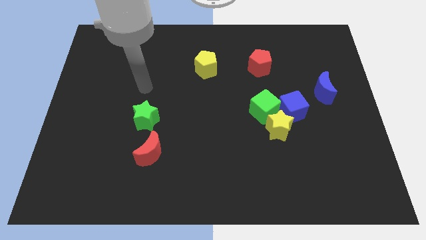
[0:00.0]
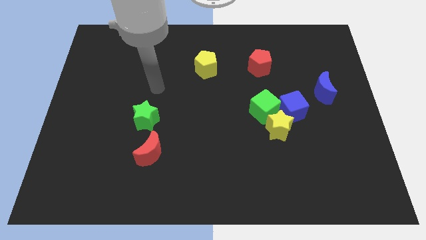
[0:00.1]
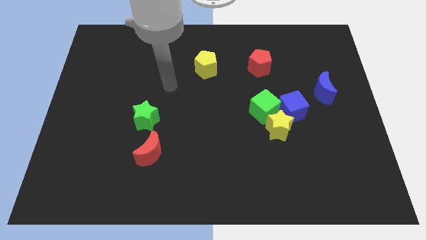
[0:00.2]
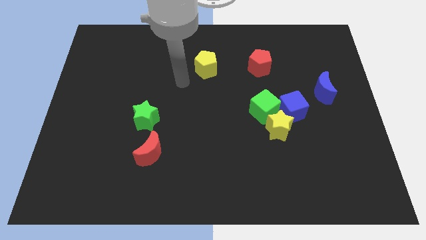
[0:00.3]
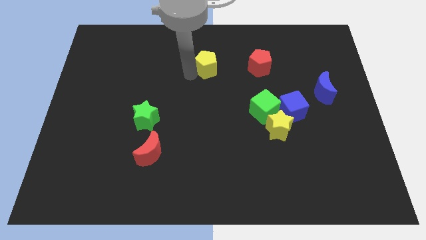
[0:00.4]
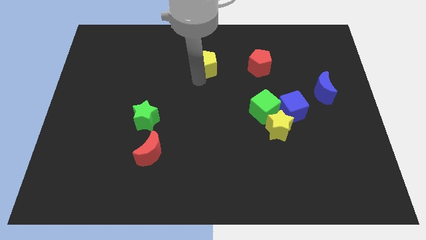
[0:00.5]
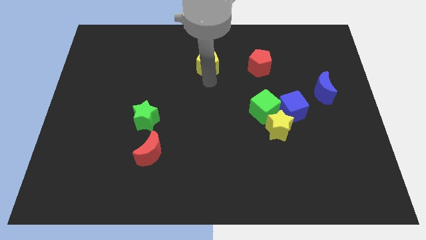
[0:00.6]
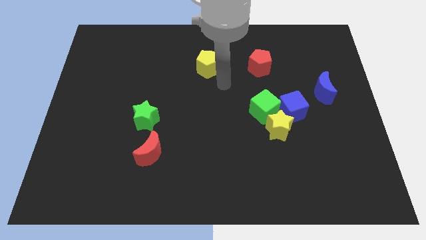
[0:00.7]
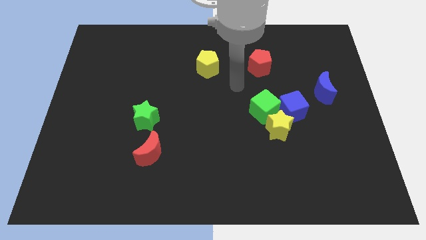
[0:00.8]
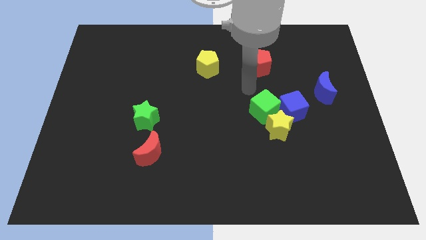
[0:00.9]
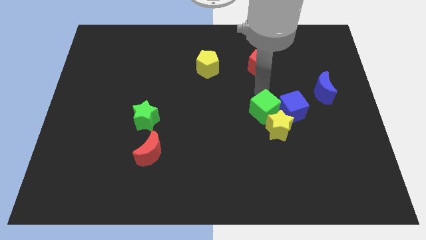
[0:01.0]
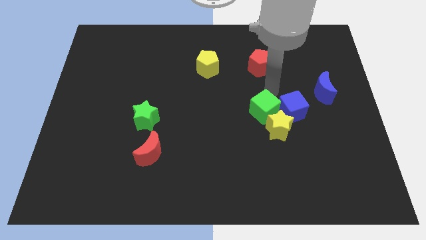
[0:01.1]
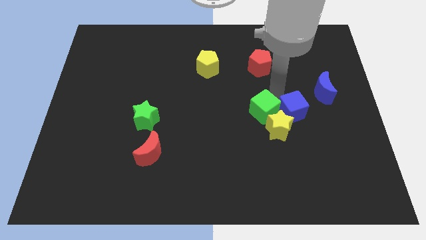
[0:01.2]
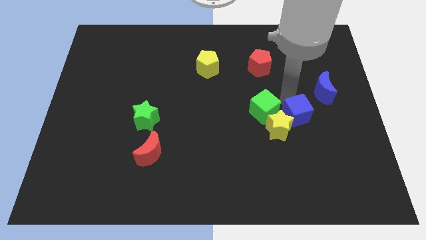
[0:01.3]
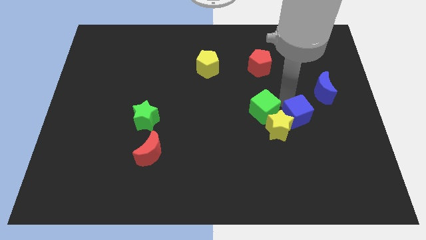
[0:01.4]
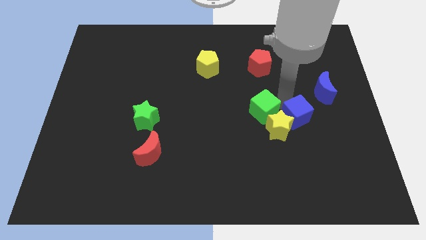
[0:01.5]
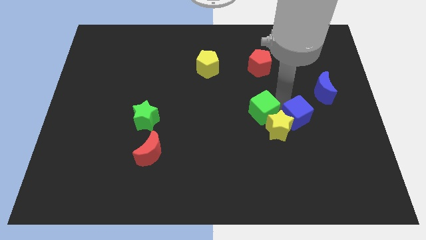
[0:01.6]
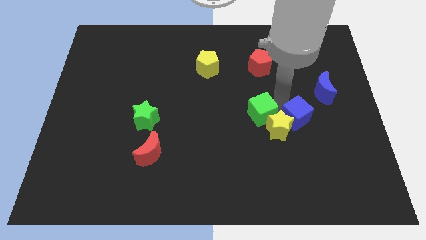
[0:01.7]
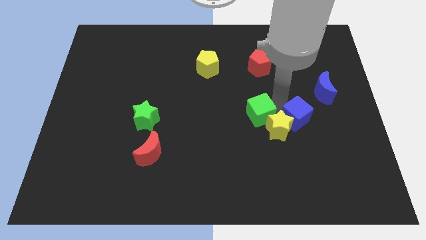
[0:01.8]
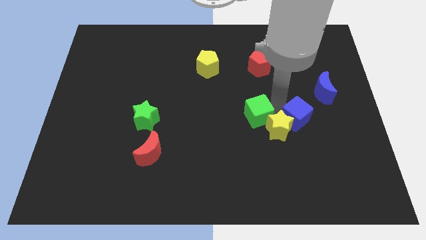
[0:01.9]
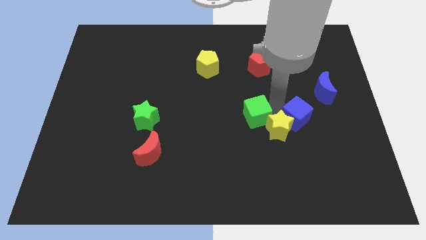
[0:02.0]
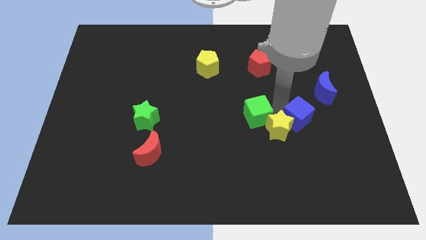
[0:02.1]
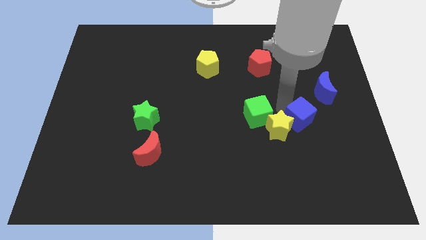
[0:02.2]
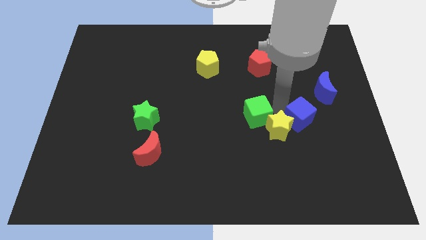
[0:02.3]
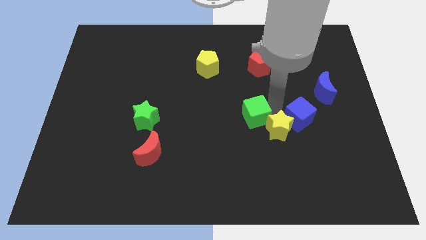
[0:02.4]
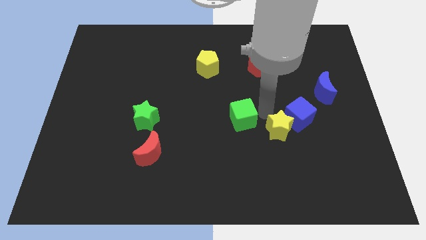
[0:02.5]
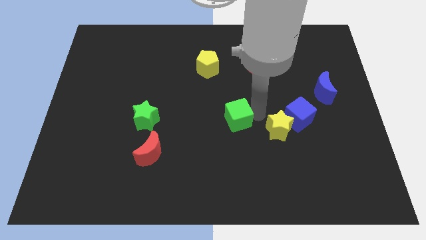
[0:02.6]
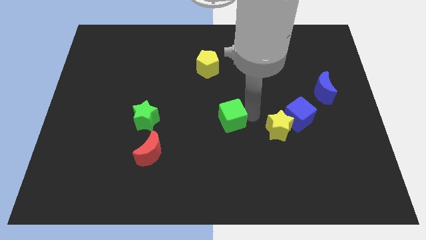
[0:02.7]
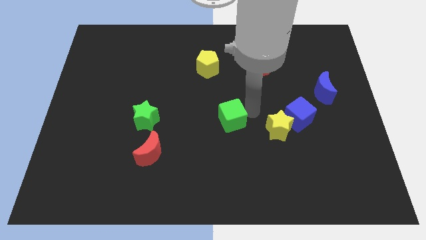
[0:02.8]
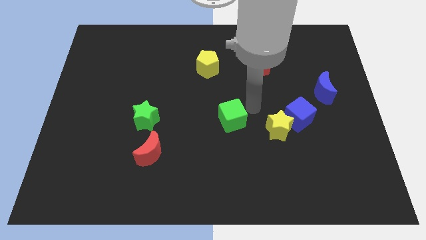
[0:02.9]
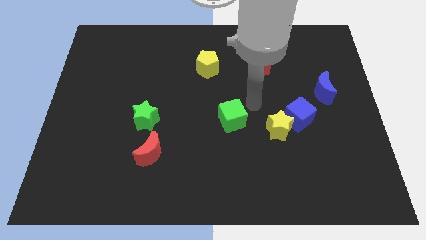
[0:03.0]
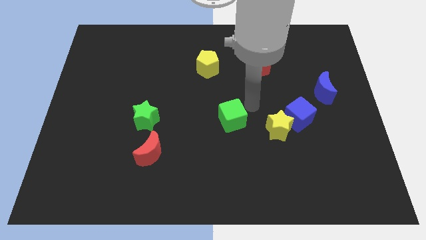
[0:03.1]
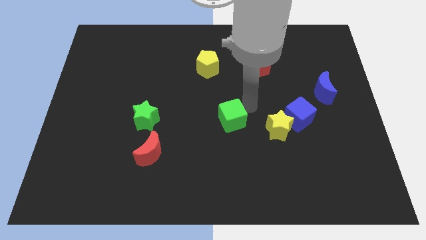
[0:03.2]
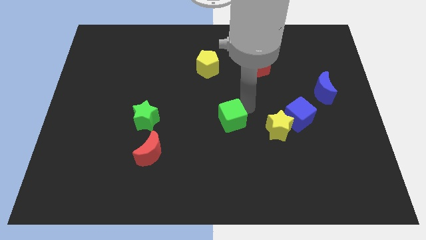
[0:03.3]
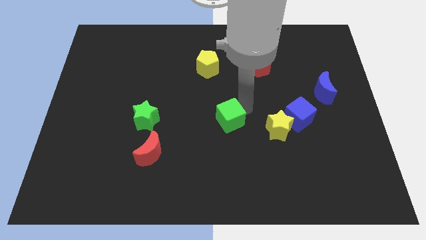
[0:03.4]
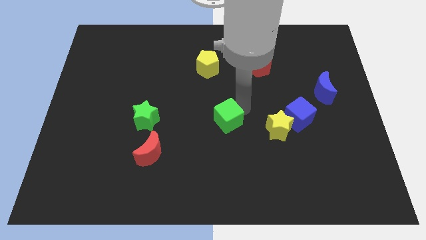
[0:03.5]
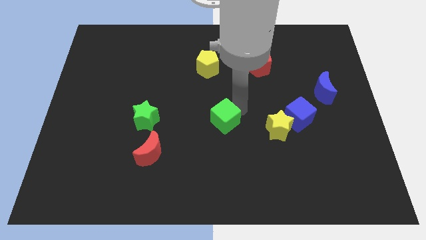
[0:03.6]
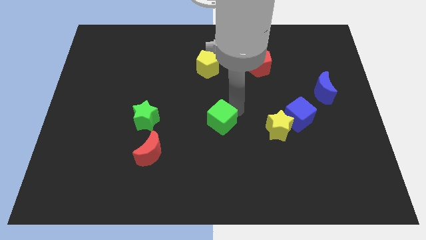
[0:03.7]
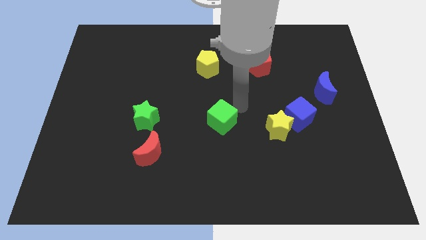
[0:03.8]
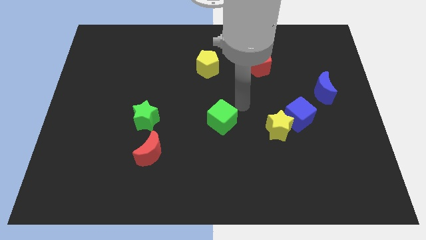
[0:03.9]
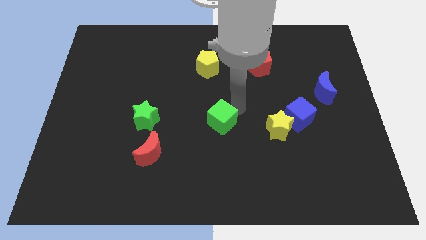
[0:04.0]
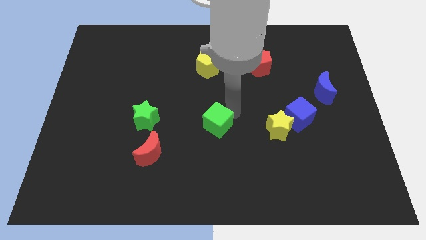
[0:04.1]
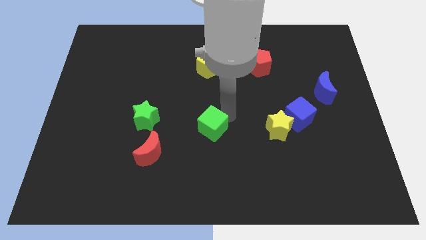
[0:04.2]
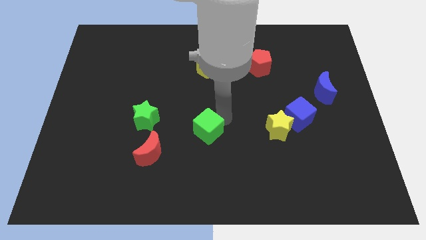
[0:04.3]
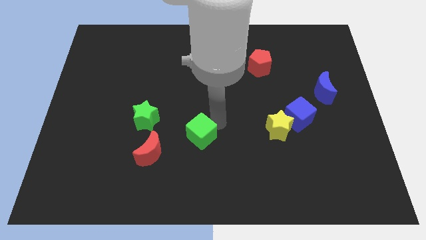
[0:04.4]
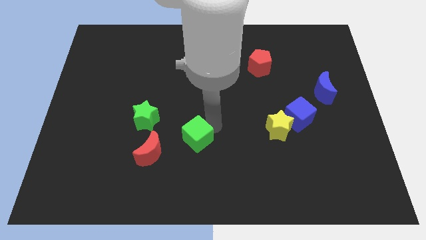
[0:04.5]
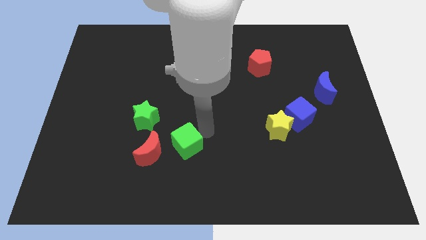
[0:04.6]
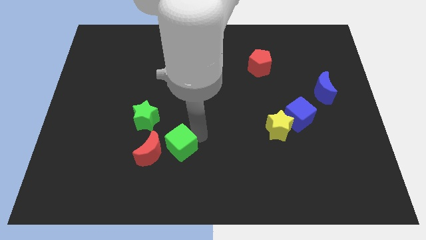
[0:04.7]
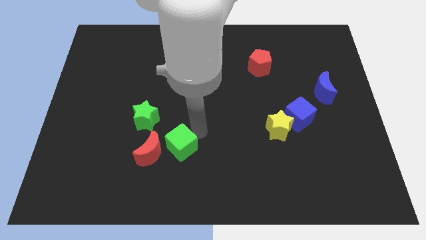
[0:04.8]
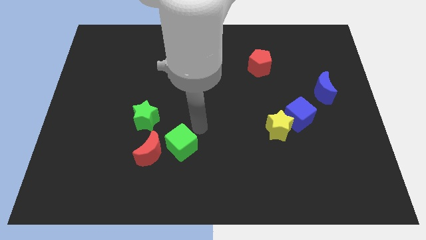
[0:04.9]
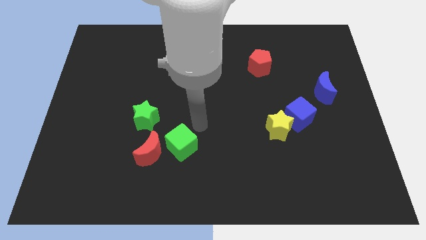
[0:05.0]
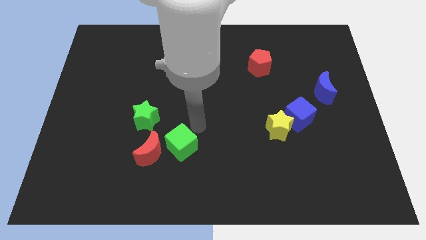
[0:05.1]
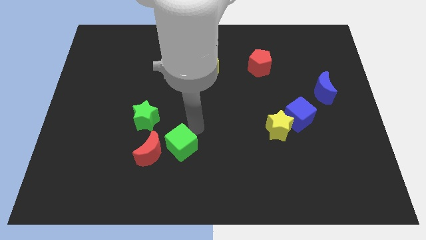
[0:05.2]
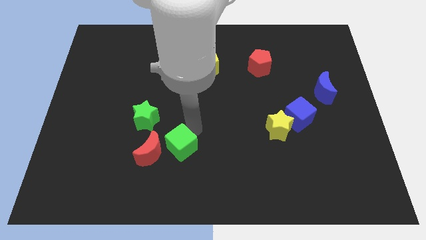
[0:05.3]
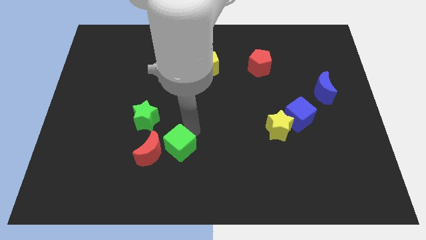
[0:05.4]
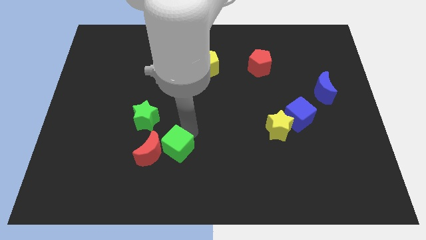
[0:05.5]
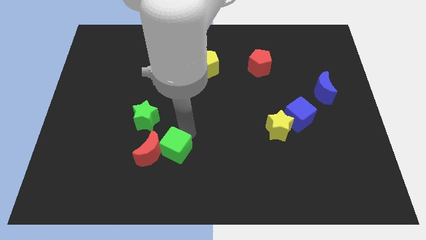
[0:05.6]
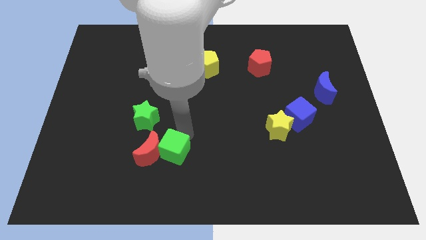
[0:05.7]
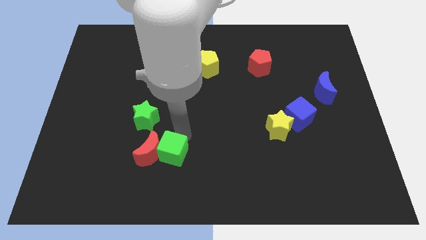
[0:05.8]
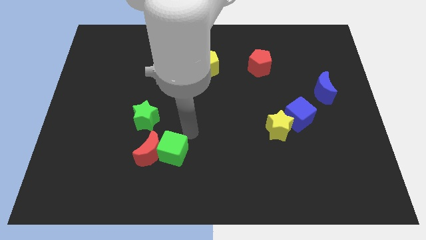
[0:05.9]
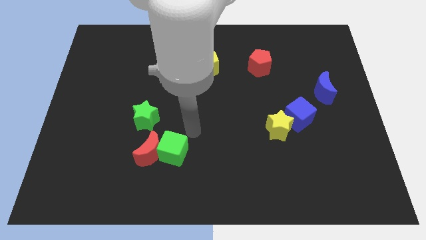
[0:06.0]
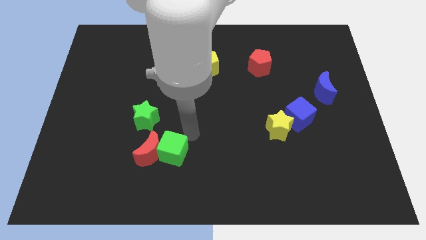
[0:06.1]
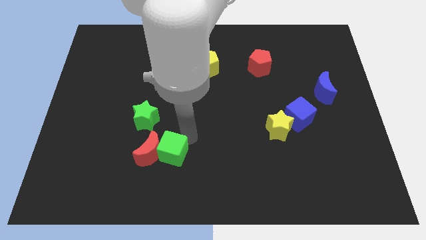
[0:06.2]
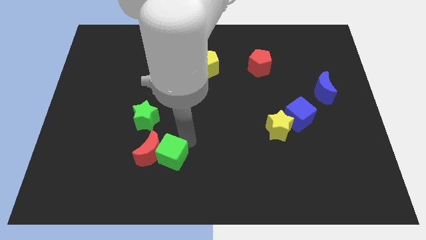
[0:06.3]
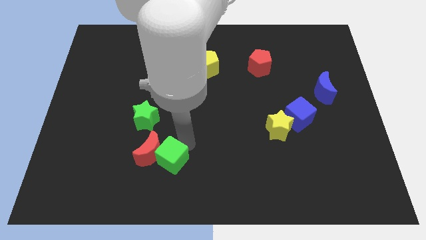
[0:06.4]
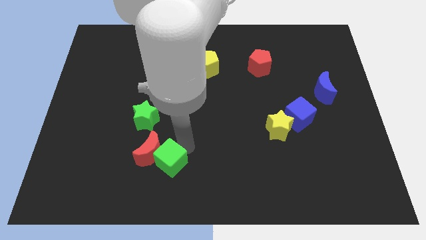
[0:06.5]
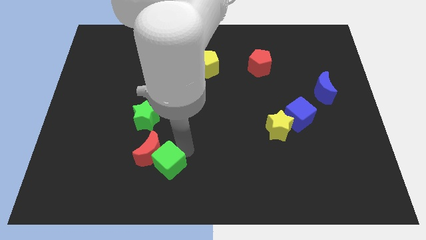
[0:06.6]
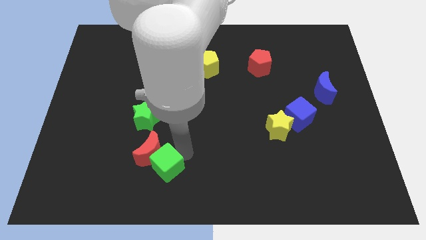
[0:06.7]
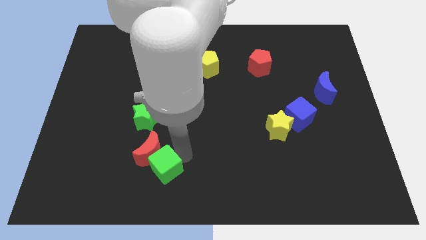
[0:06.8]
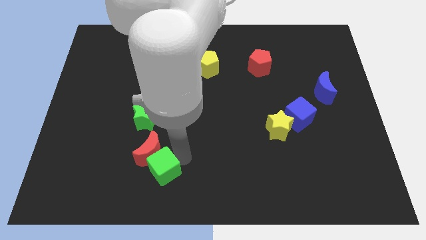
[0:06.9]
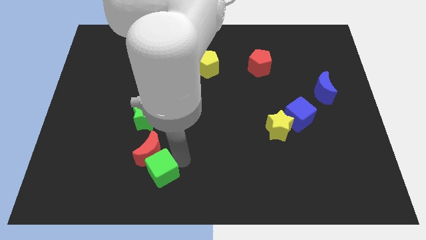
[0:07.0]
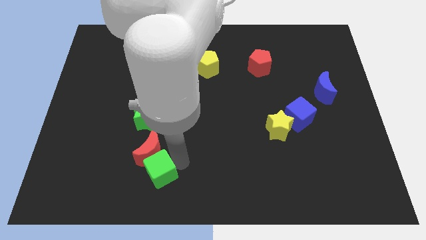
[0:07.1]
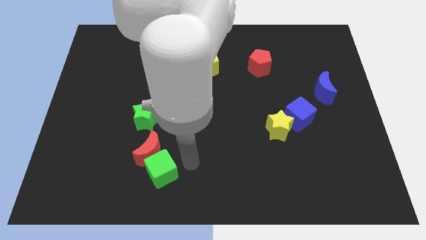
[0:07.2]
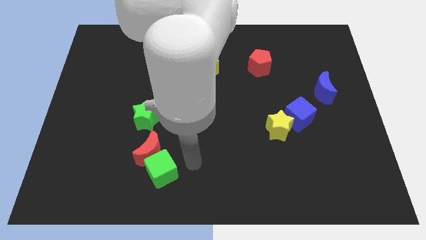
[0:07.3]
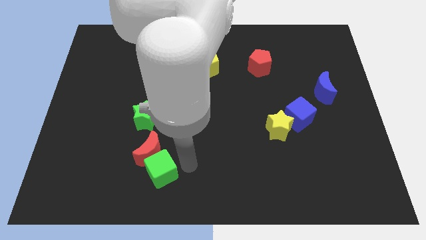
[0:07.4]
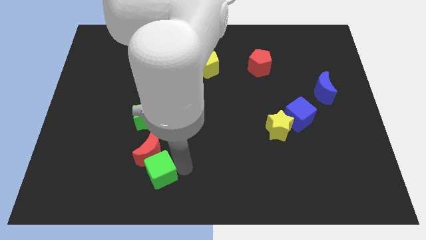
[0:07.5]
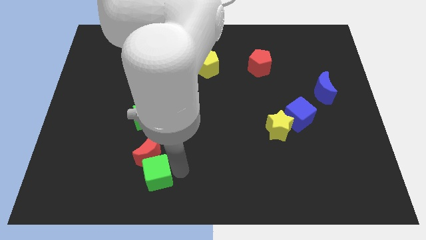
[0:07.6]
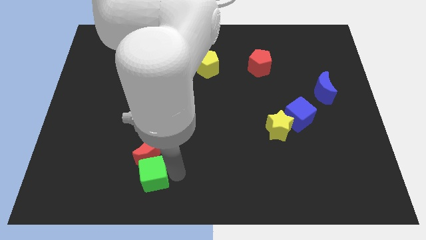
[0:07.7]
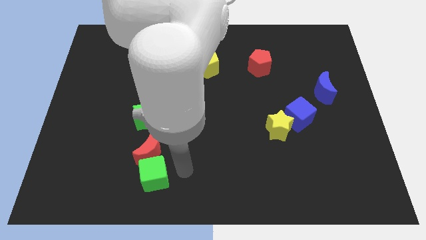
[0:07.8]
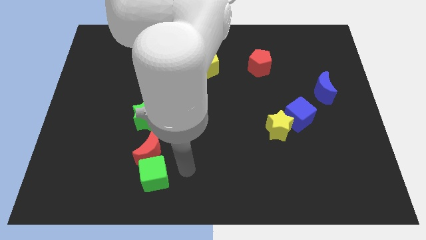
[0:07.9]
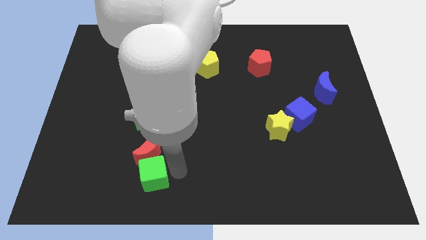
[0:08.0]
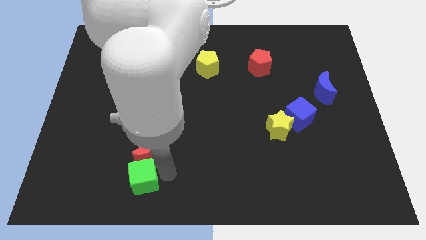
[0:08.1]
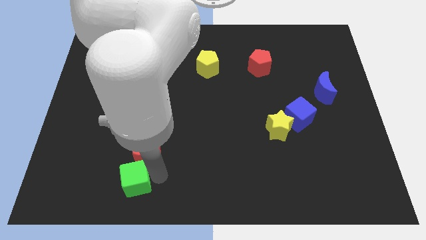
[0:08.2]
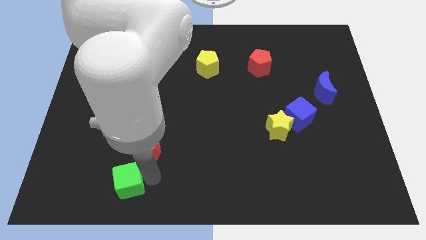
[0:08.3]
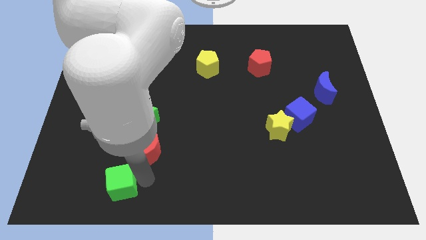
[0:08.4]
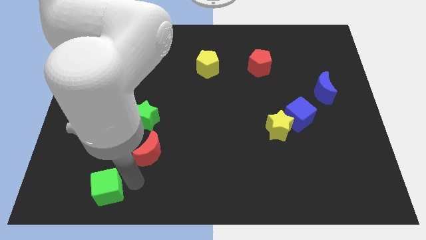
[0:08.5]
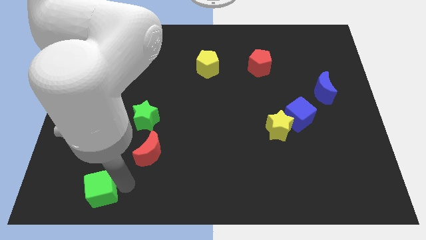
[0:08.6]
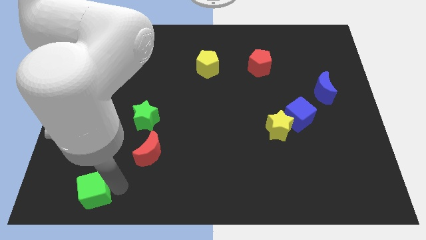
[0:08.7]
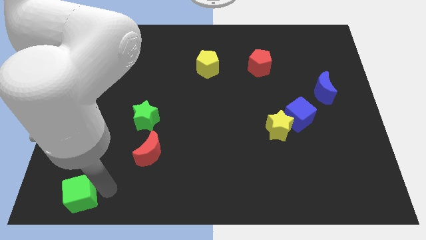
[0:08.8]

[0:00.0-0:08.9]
put the green cube to the bottom left of the board
